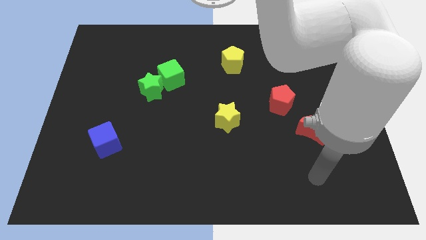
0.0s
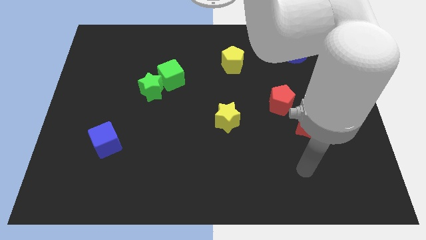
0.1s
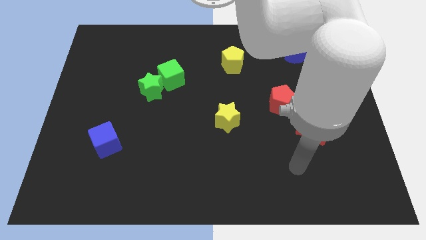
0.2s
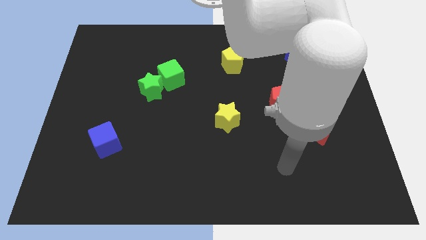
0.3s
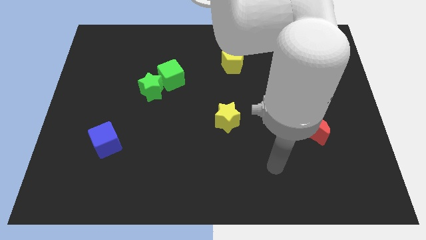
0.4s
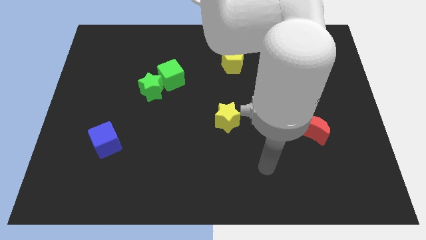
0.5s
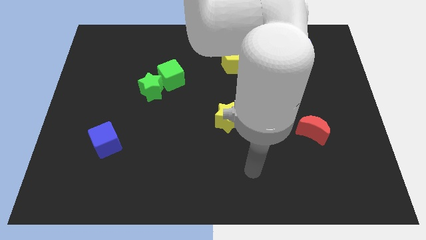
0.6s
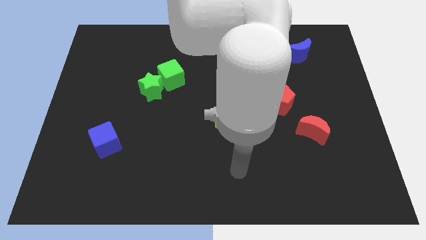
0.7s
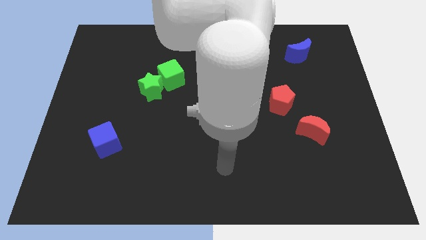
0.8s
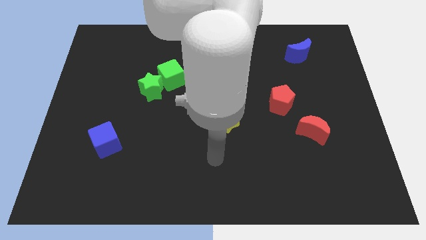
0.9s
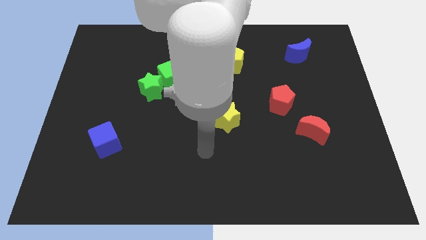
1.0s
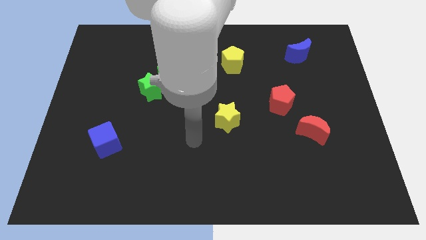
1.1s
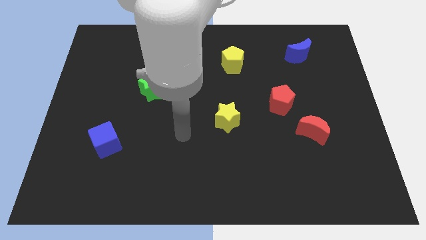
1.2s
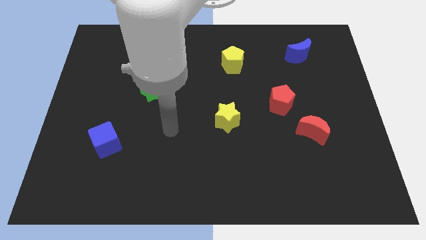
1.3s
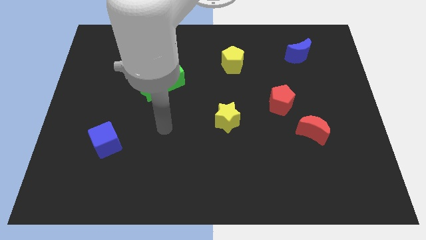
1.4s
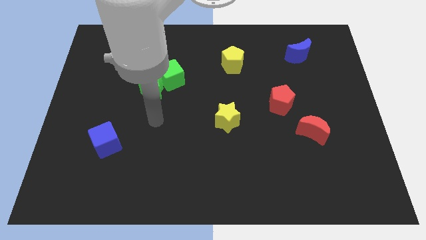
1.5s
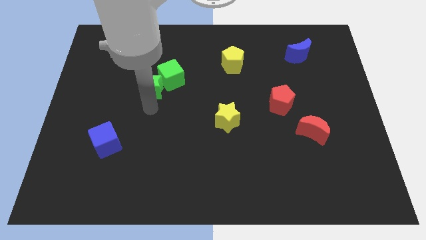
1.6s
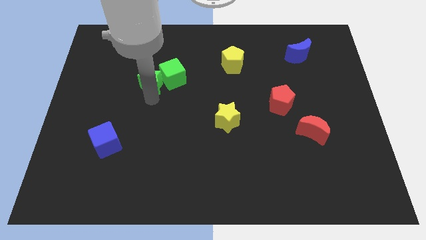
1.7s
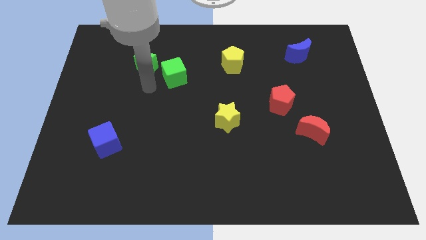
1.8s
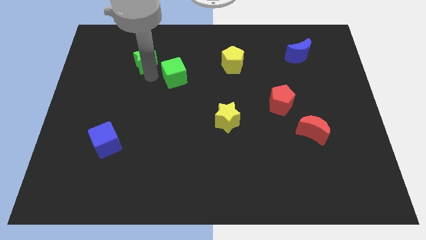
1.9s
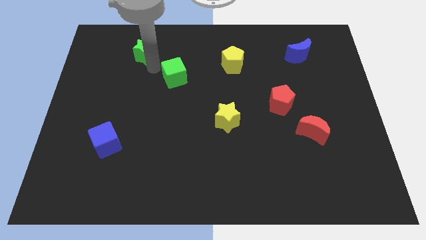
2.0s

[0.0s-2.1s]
separate the green cube from the green star

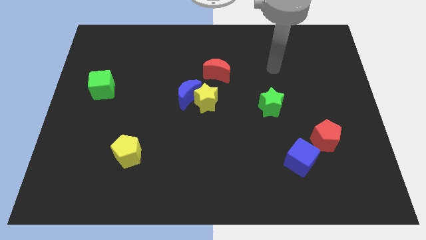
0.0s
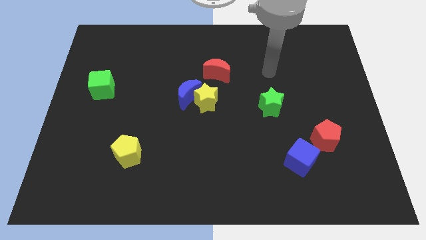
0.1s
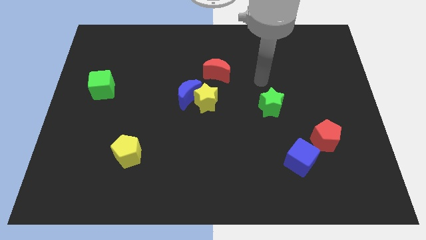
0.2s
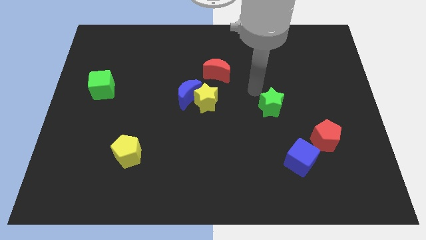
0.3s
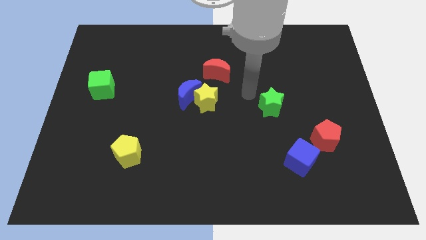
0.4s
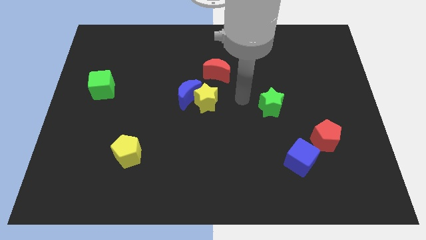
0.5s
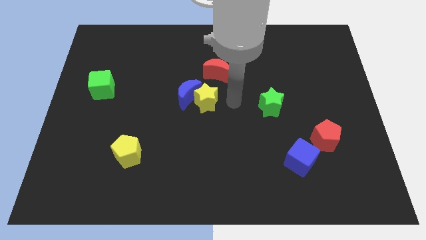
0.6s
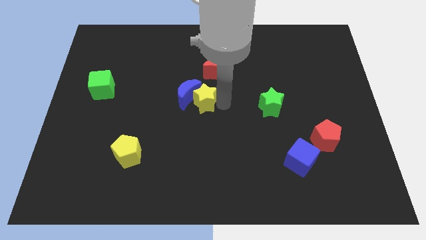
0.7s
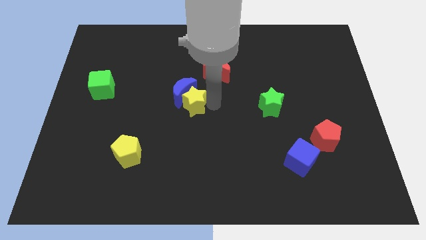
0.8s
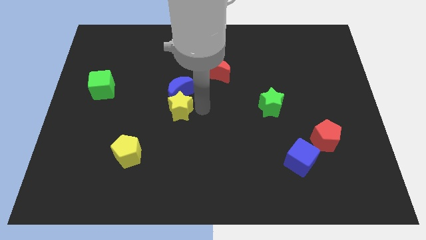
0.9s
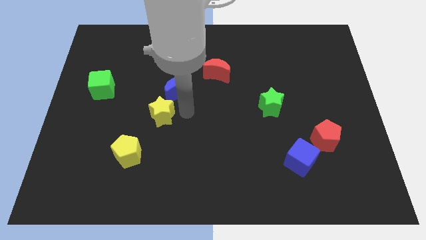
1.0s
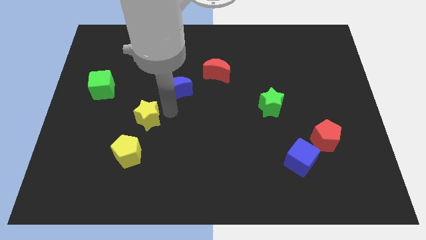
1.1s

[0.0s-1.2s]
separate the blue moon from the yellow star

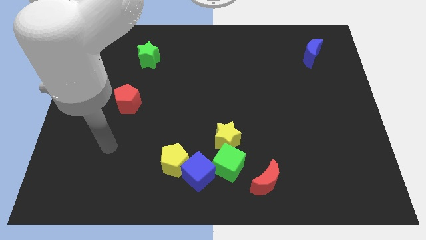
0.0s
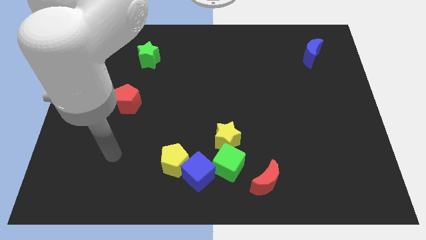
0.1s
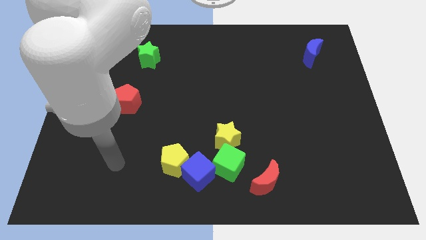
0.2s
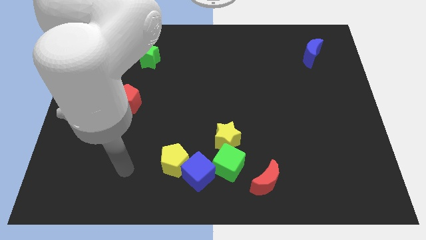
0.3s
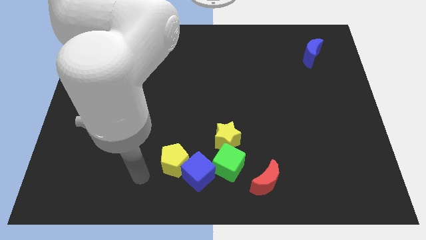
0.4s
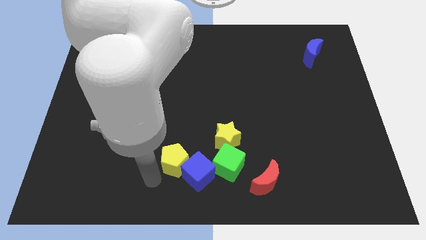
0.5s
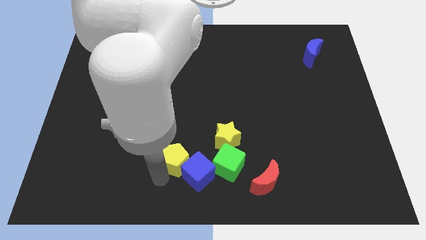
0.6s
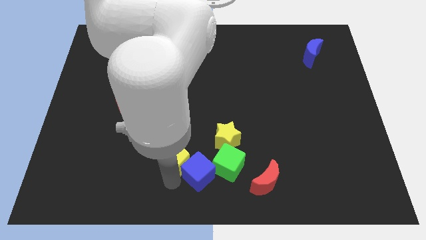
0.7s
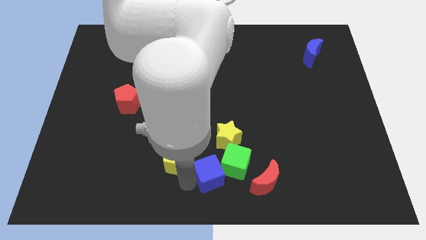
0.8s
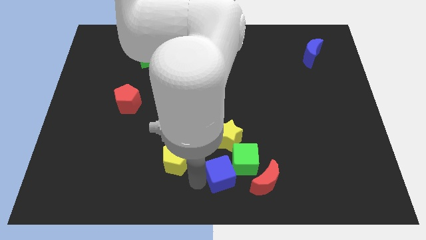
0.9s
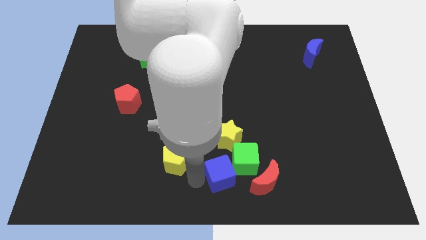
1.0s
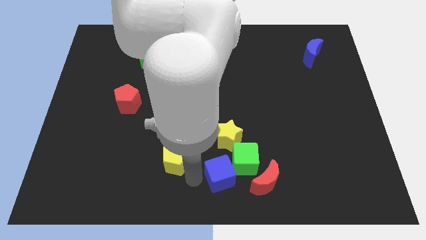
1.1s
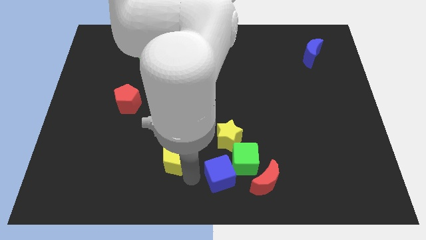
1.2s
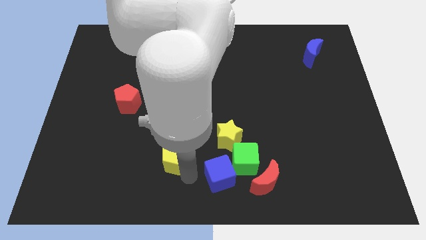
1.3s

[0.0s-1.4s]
move the yellow pentagon away from the blue cube

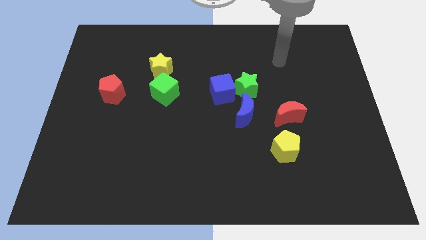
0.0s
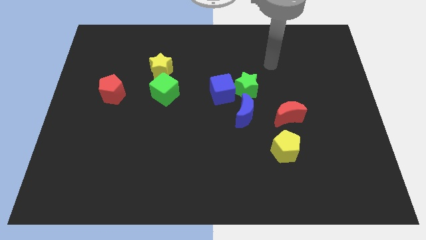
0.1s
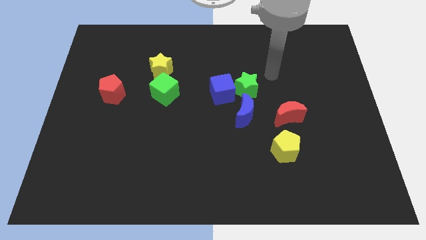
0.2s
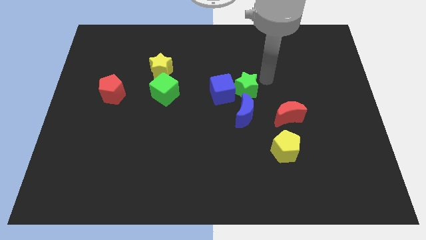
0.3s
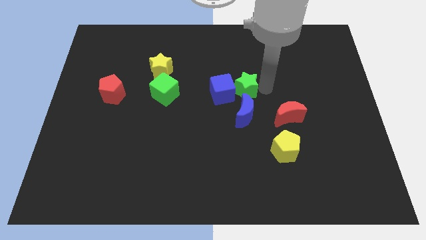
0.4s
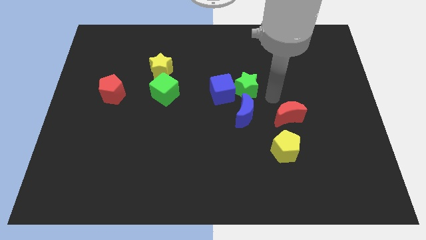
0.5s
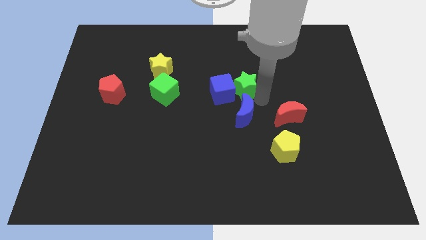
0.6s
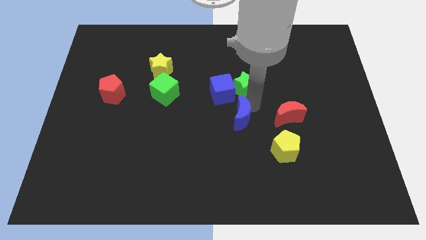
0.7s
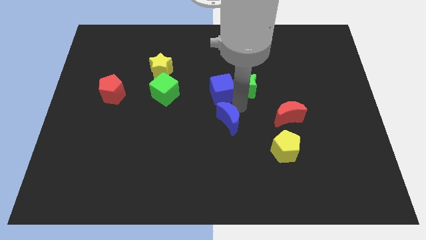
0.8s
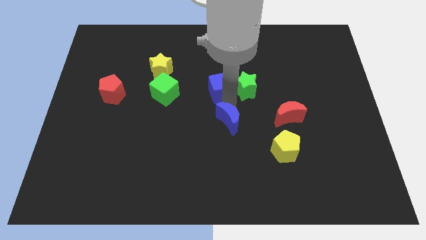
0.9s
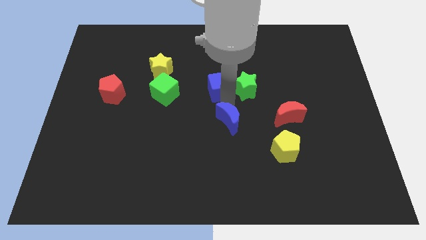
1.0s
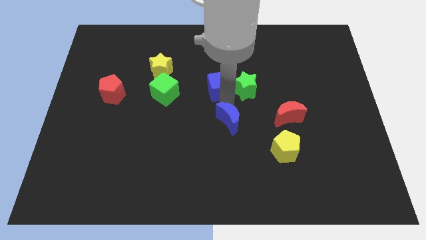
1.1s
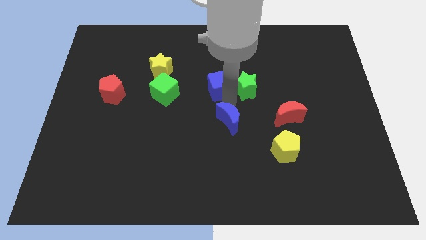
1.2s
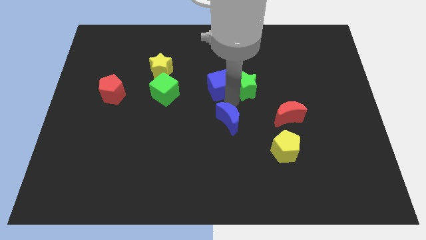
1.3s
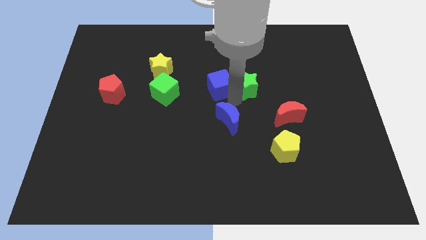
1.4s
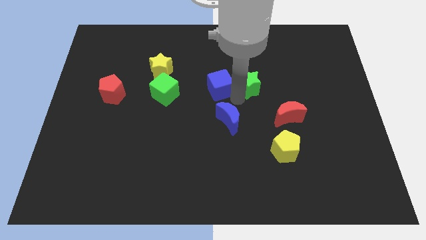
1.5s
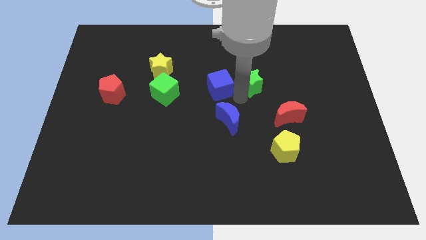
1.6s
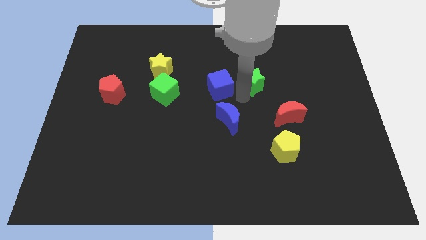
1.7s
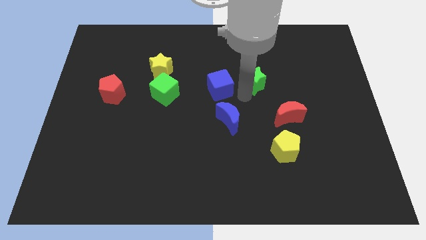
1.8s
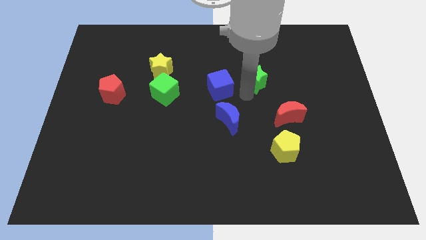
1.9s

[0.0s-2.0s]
separate the green star from the blue cube and blue moon

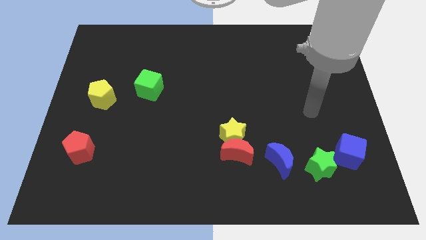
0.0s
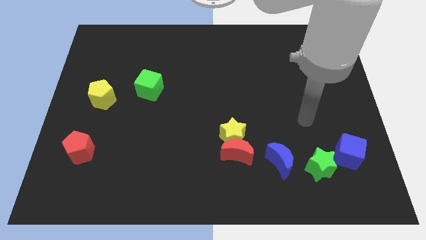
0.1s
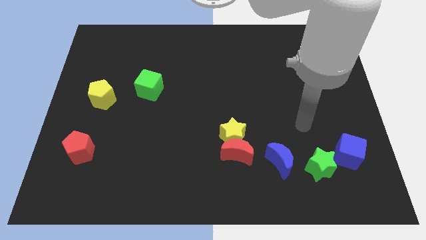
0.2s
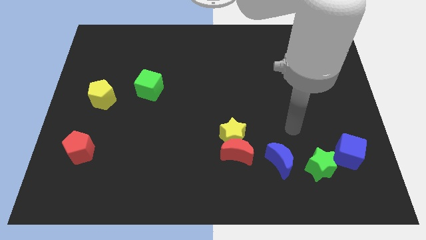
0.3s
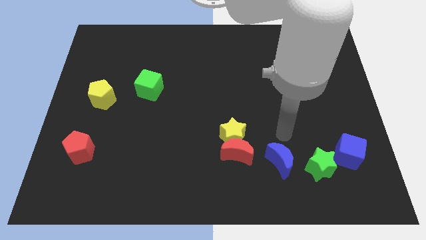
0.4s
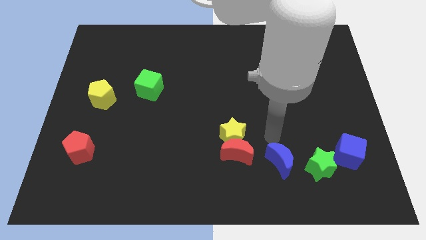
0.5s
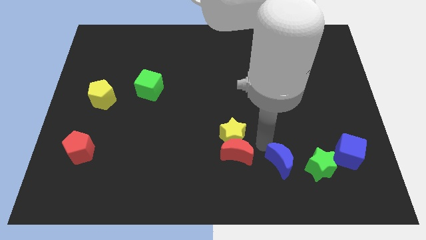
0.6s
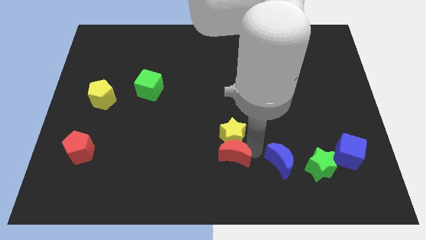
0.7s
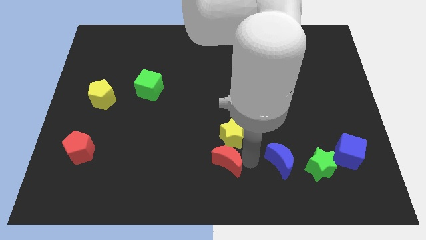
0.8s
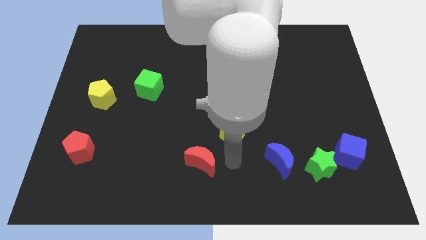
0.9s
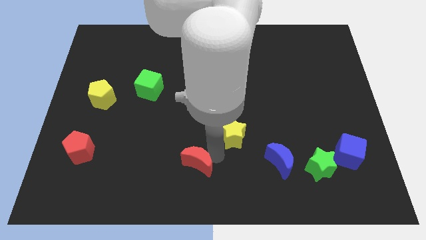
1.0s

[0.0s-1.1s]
pull the yellow star apart from the red moon

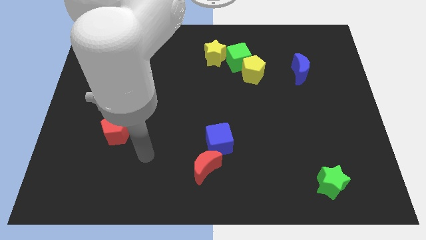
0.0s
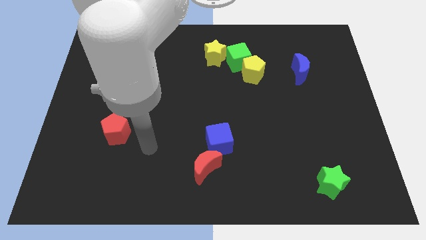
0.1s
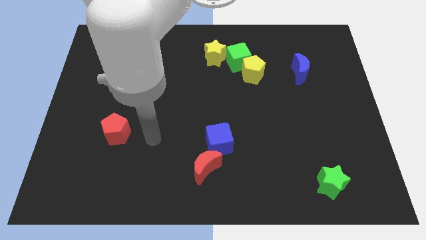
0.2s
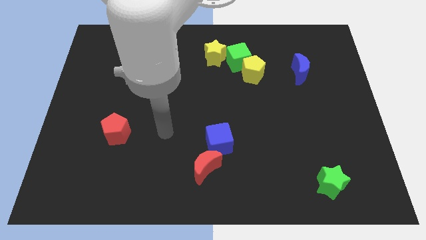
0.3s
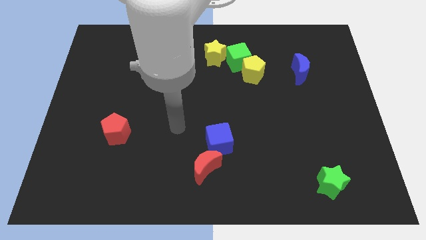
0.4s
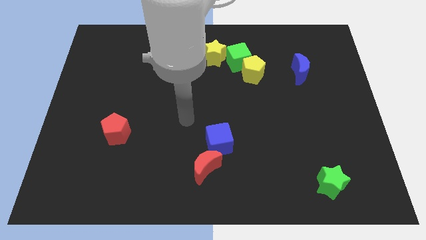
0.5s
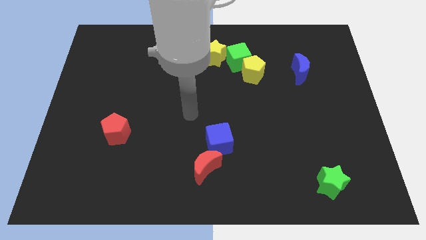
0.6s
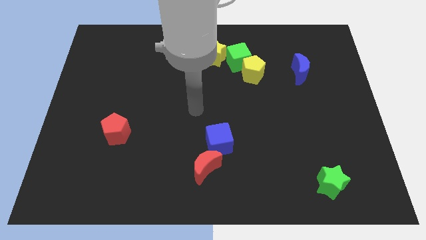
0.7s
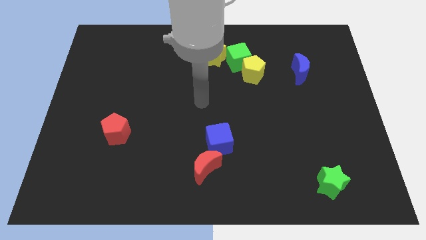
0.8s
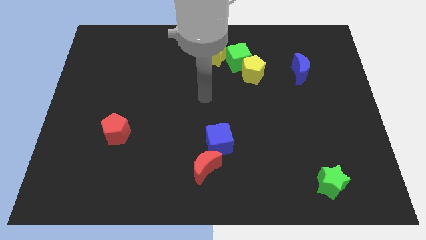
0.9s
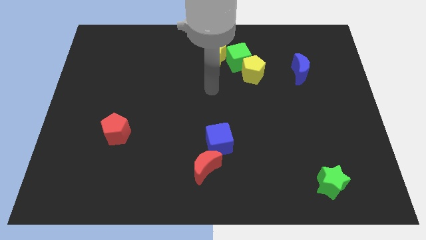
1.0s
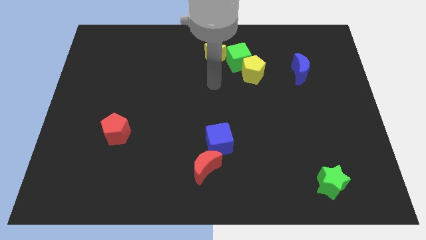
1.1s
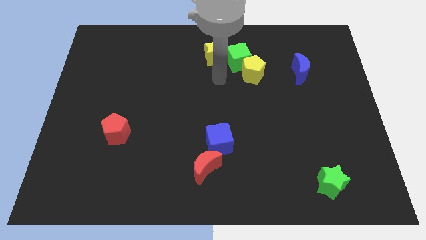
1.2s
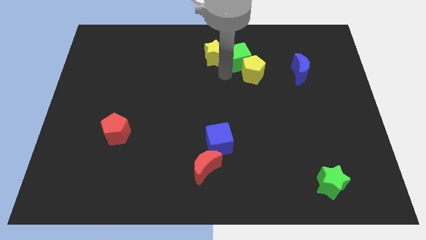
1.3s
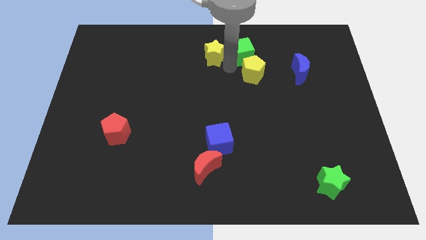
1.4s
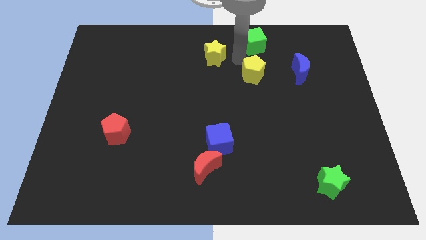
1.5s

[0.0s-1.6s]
move the yellow pentagon away from the green cube
